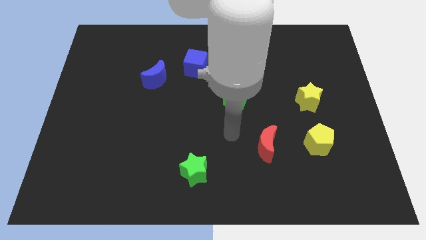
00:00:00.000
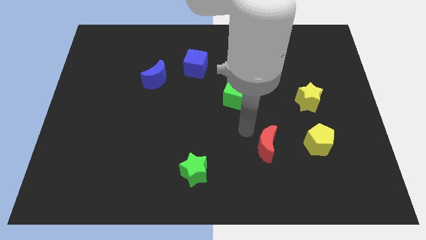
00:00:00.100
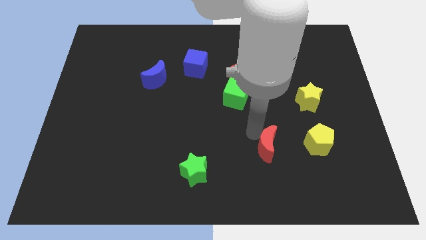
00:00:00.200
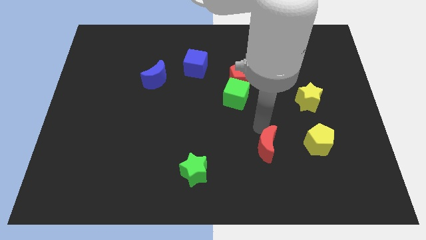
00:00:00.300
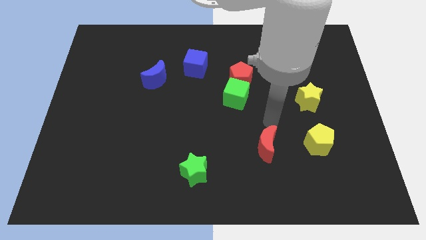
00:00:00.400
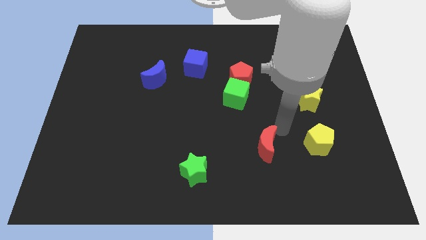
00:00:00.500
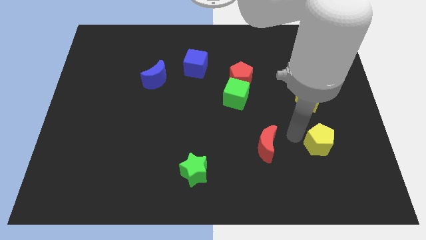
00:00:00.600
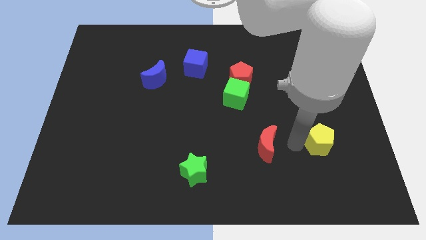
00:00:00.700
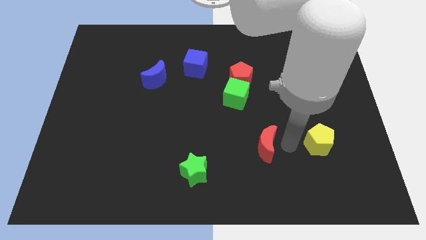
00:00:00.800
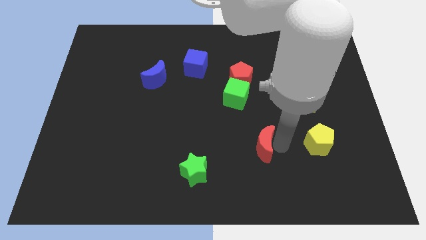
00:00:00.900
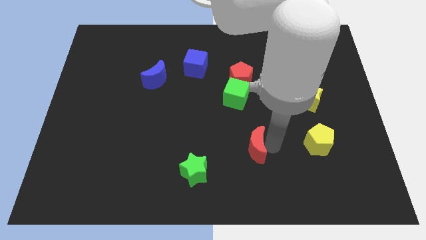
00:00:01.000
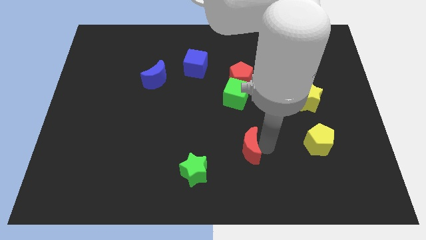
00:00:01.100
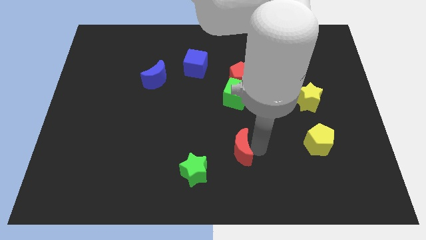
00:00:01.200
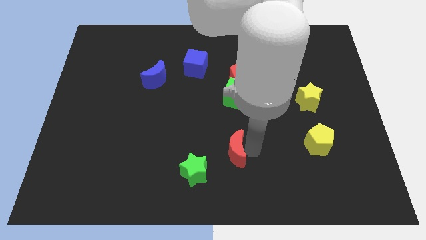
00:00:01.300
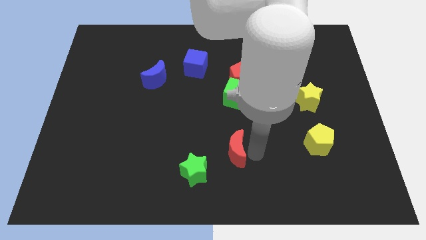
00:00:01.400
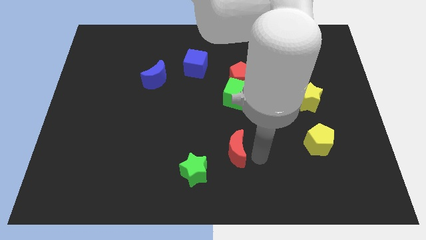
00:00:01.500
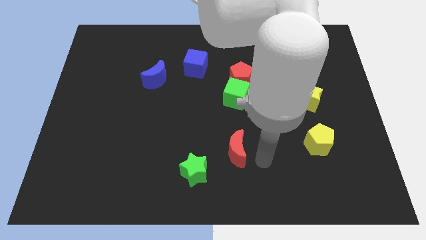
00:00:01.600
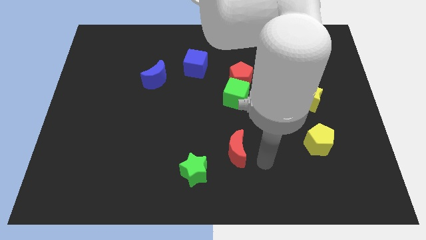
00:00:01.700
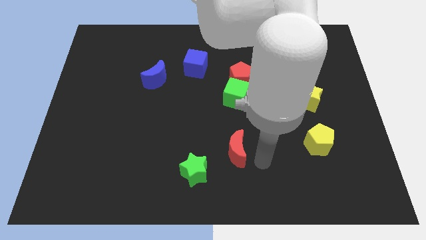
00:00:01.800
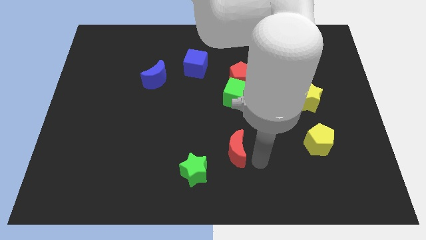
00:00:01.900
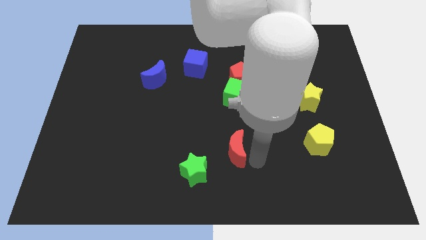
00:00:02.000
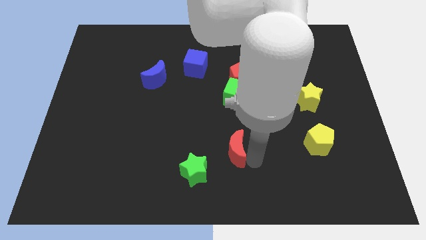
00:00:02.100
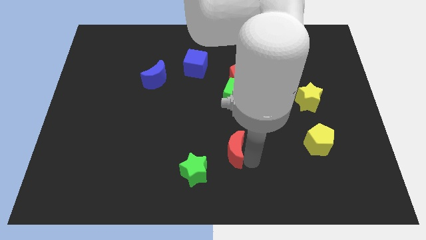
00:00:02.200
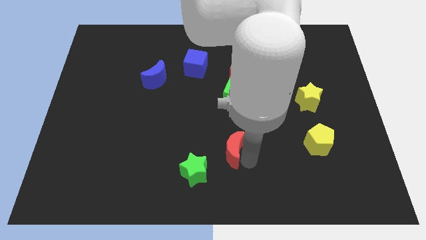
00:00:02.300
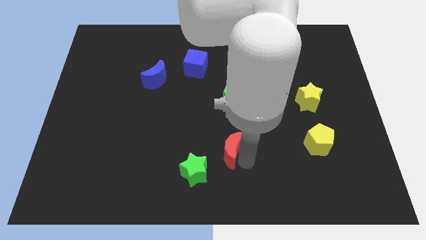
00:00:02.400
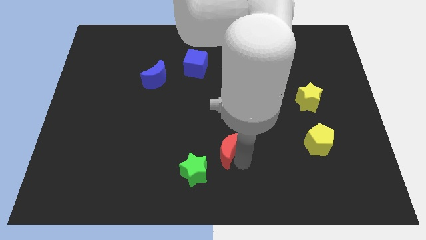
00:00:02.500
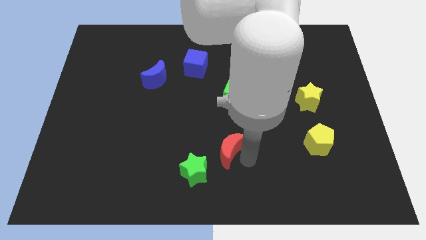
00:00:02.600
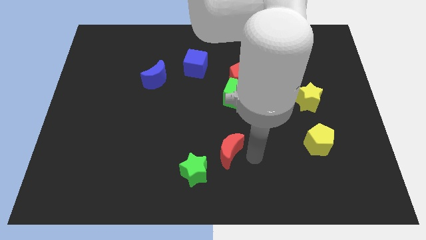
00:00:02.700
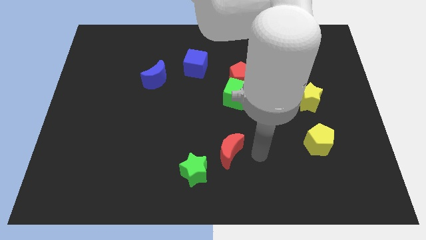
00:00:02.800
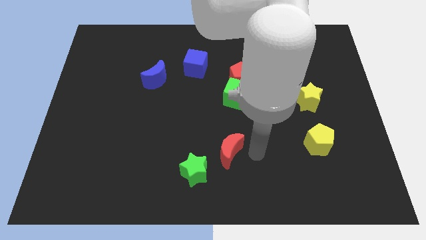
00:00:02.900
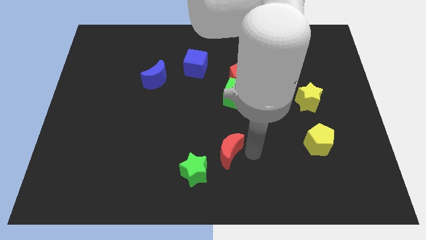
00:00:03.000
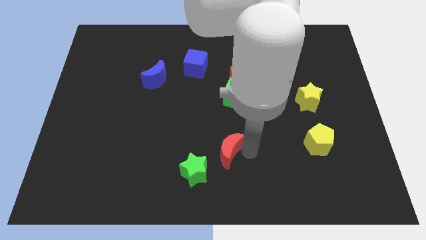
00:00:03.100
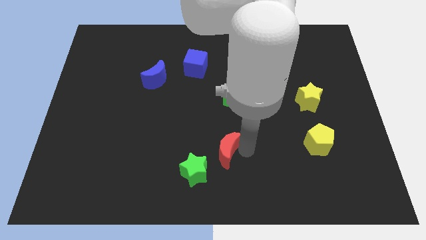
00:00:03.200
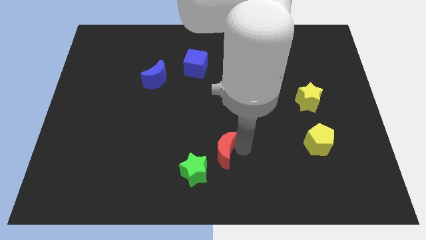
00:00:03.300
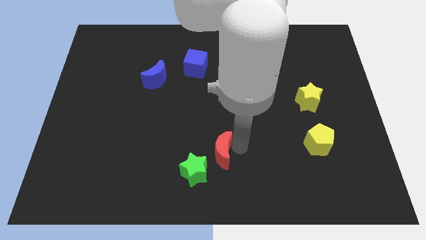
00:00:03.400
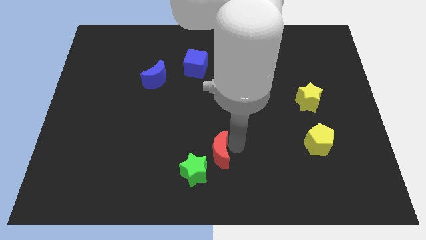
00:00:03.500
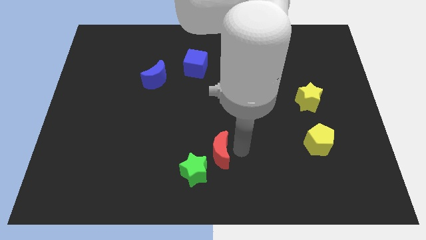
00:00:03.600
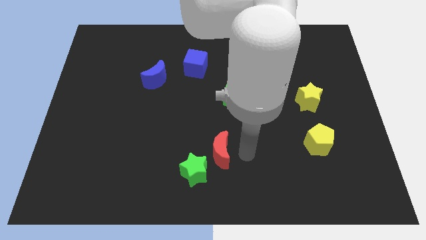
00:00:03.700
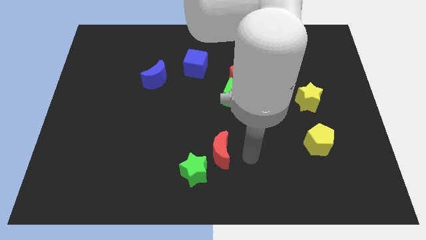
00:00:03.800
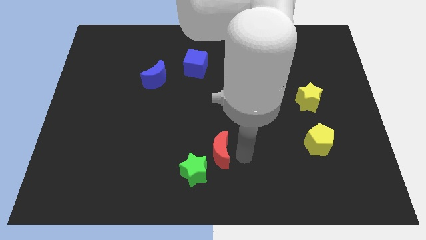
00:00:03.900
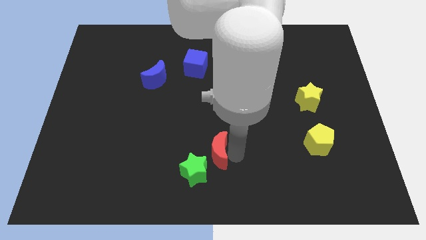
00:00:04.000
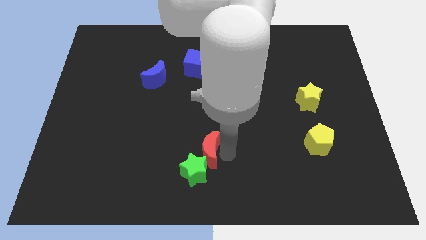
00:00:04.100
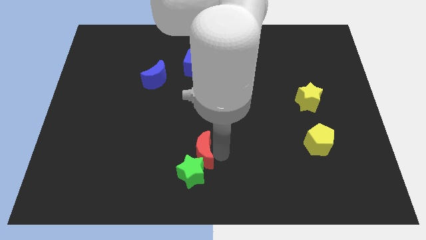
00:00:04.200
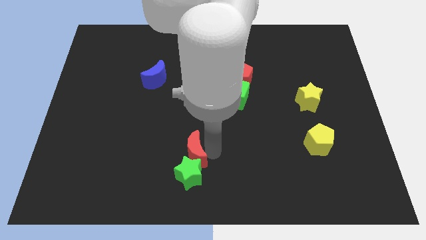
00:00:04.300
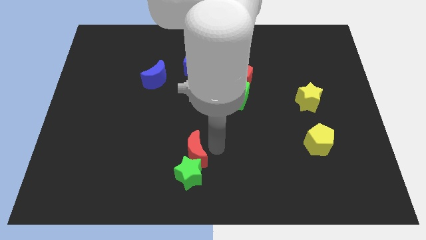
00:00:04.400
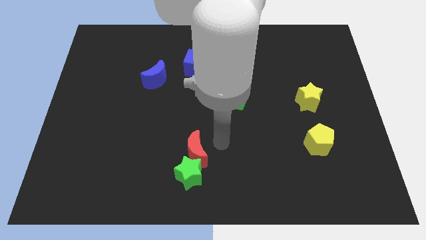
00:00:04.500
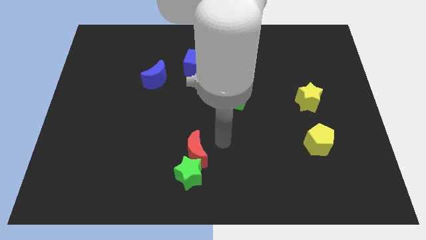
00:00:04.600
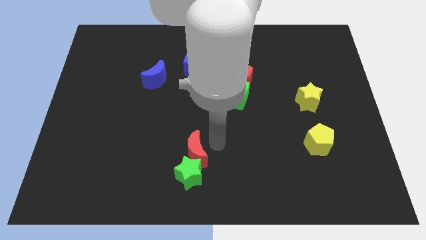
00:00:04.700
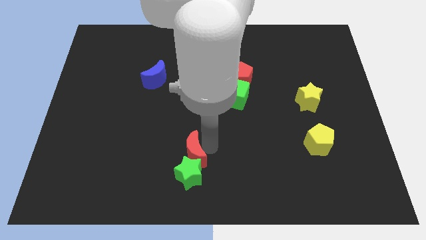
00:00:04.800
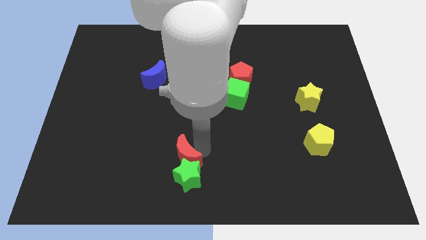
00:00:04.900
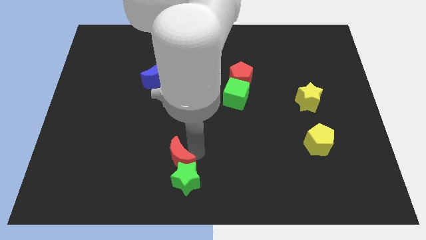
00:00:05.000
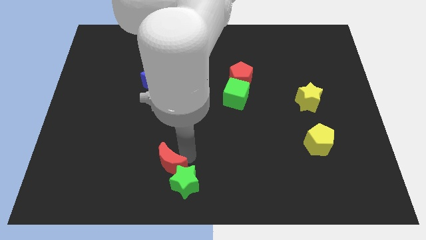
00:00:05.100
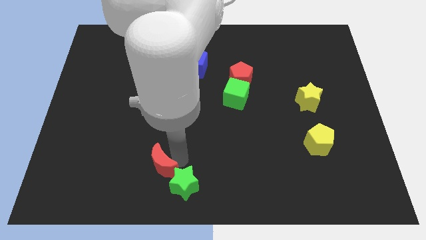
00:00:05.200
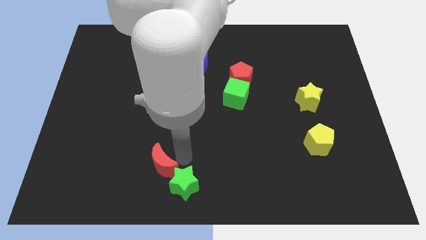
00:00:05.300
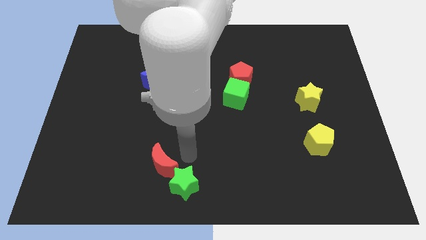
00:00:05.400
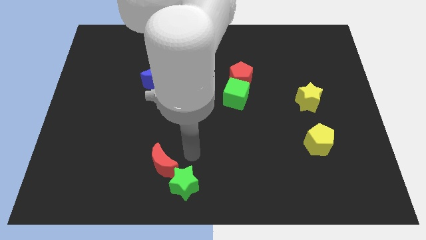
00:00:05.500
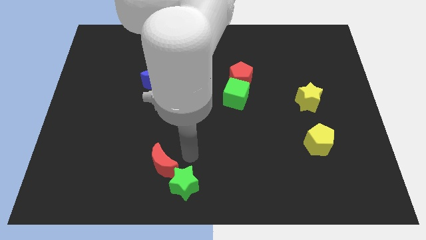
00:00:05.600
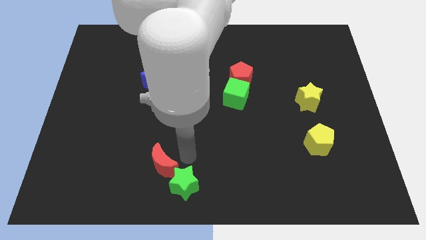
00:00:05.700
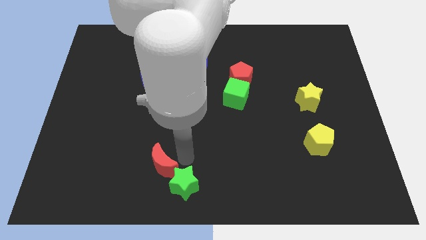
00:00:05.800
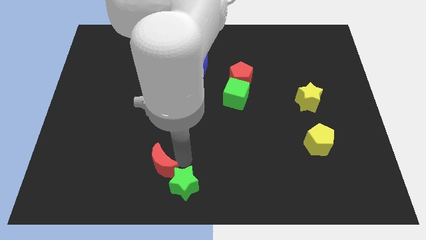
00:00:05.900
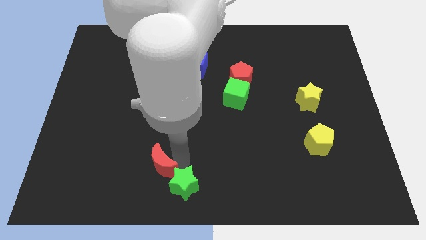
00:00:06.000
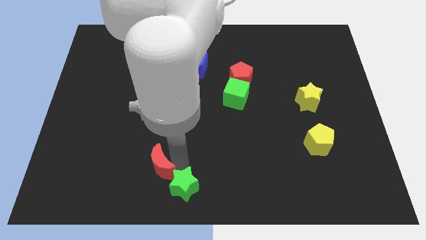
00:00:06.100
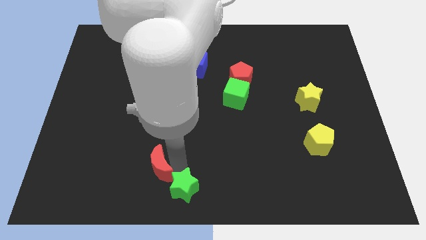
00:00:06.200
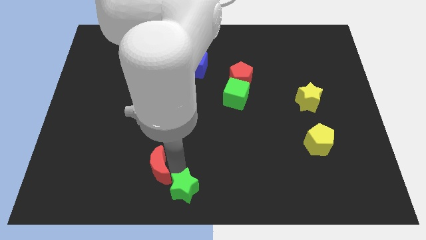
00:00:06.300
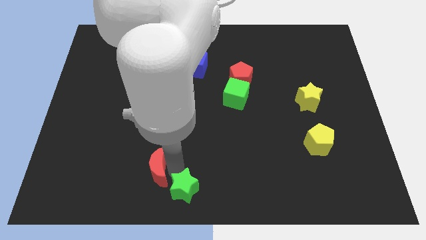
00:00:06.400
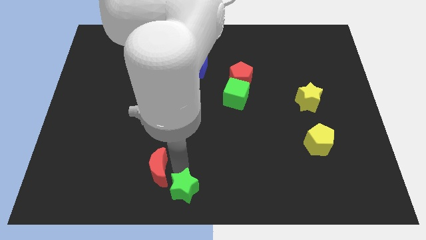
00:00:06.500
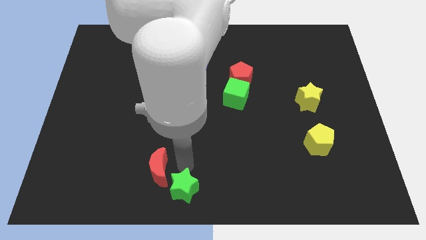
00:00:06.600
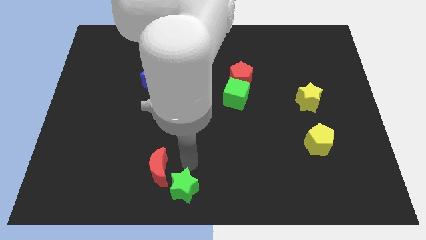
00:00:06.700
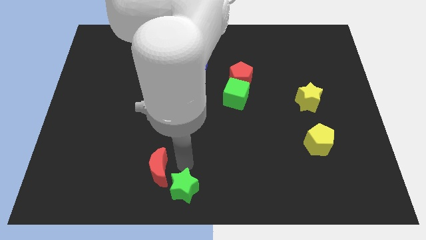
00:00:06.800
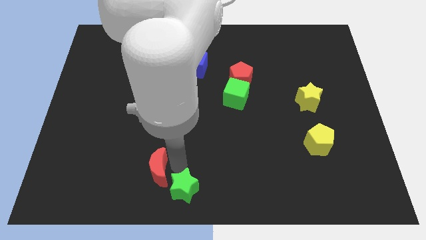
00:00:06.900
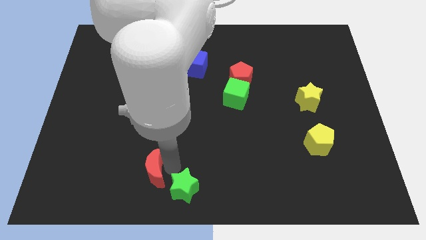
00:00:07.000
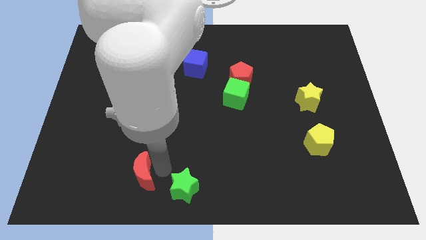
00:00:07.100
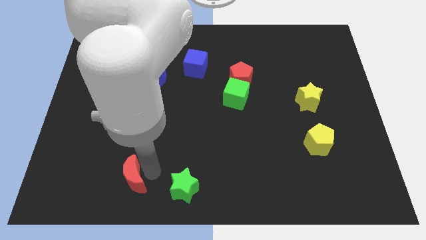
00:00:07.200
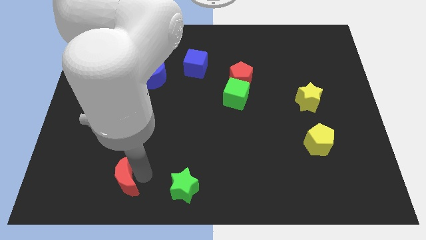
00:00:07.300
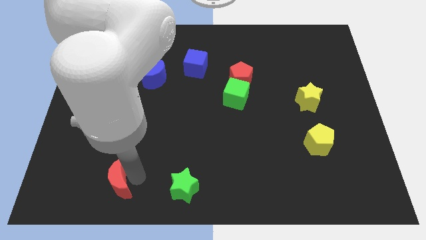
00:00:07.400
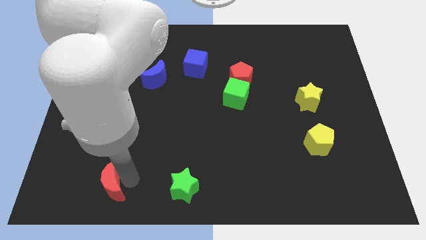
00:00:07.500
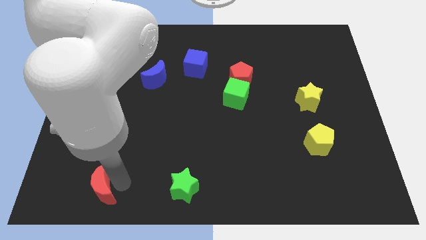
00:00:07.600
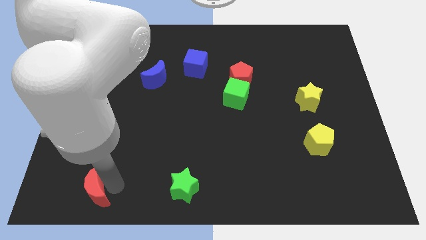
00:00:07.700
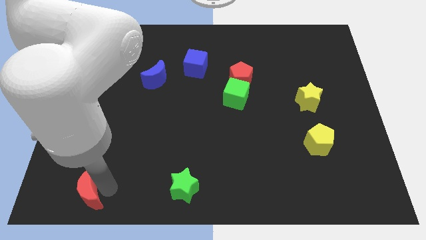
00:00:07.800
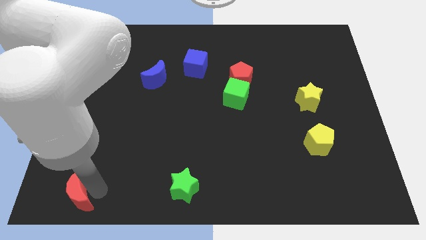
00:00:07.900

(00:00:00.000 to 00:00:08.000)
move the red moon to the lower left corner
